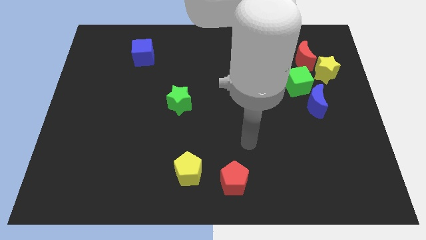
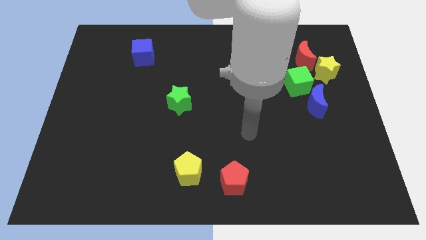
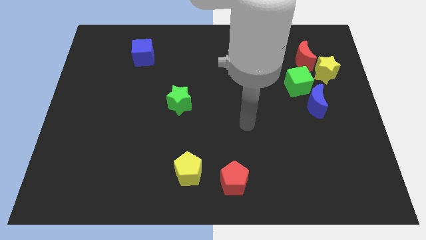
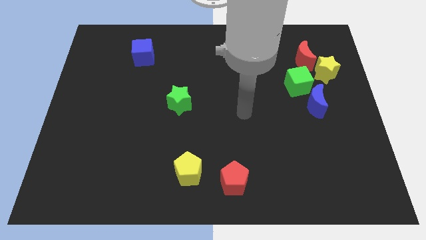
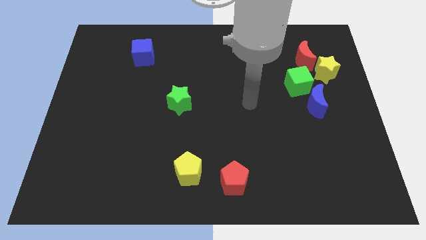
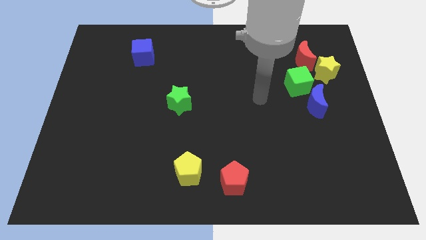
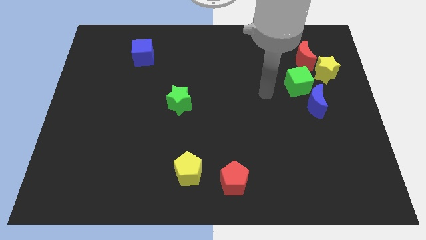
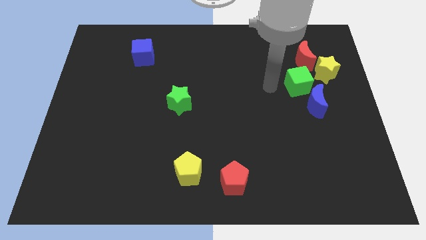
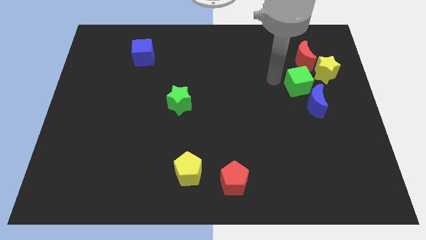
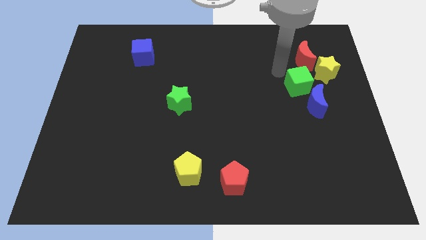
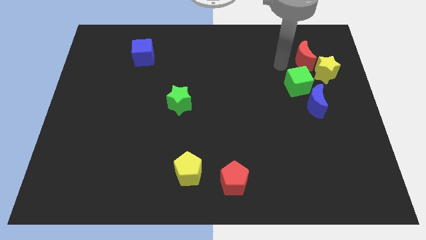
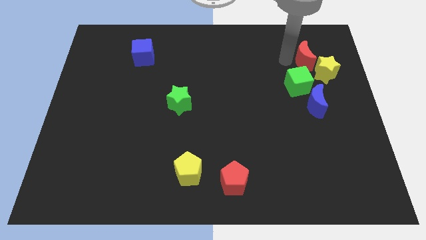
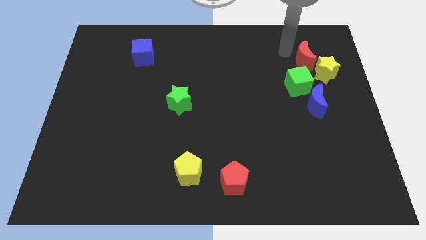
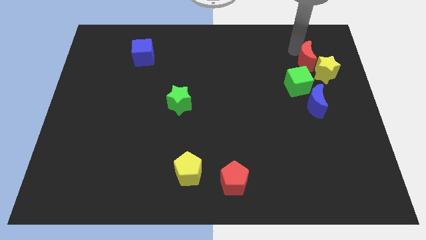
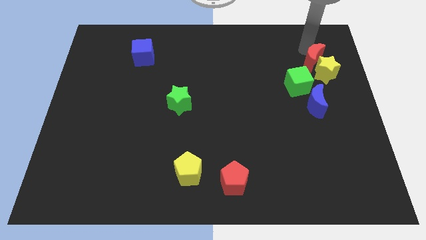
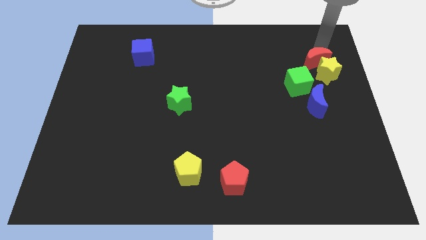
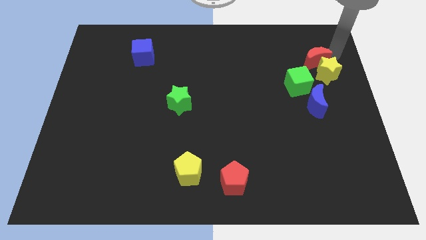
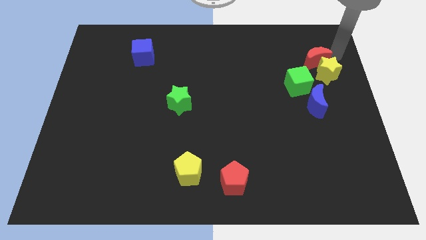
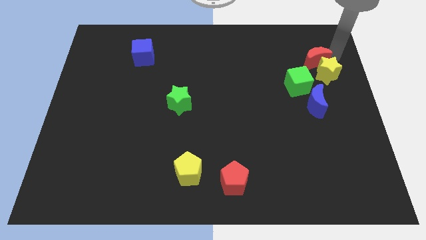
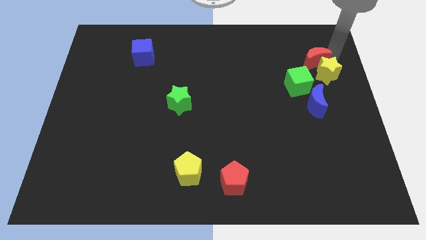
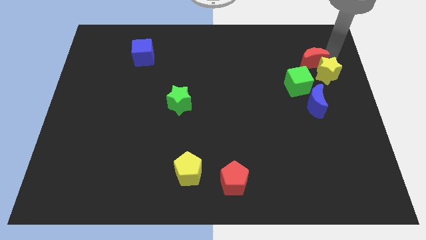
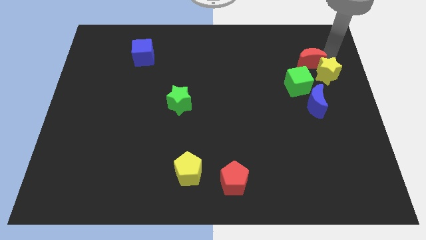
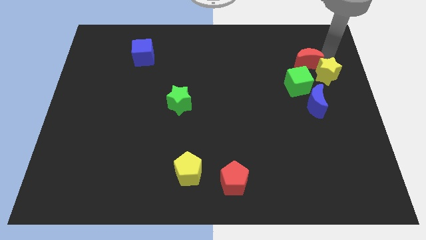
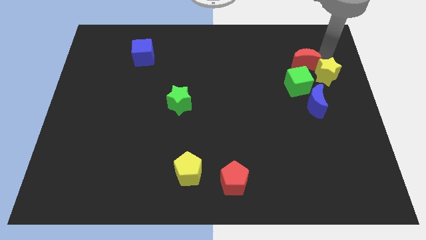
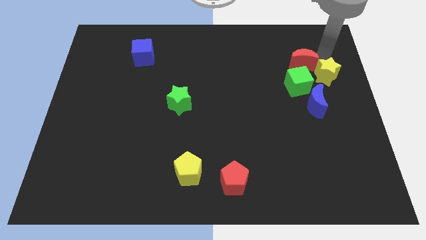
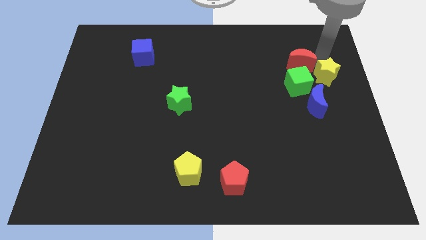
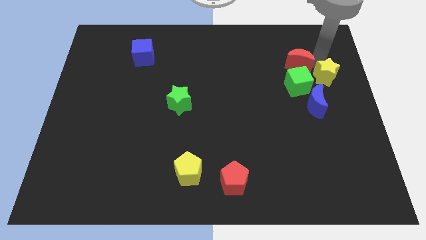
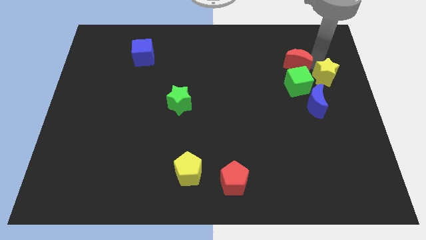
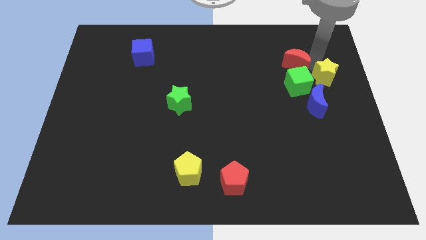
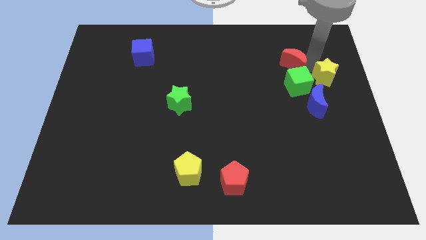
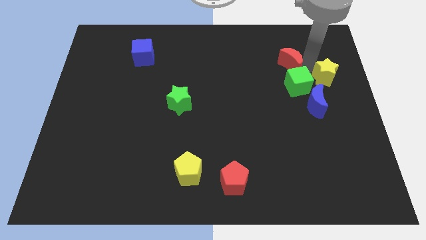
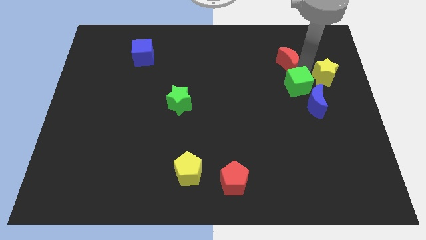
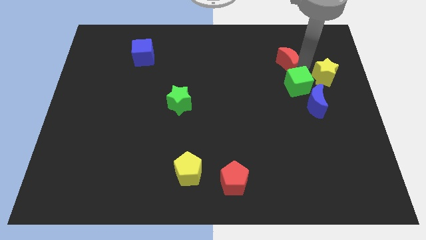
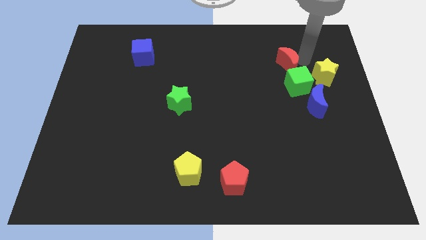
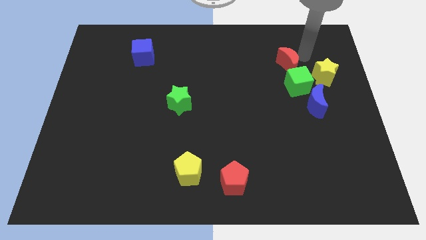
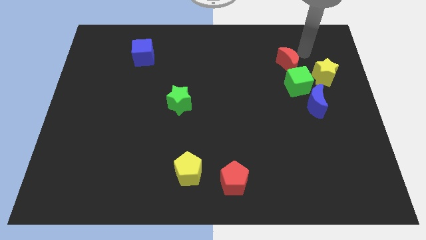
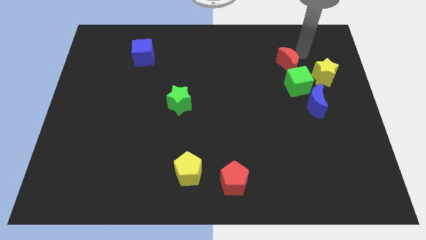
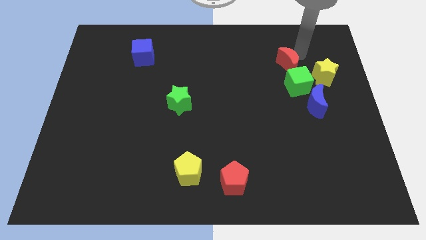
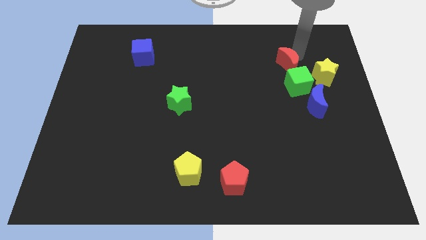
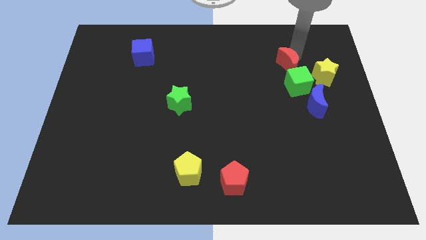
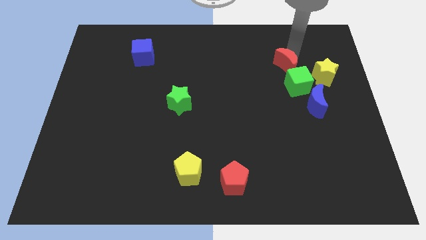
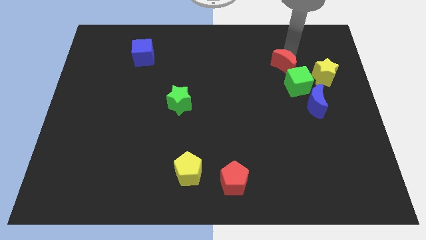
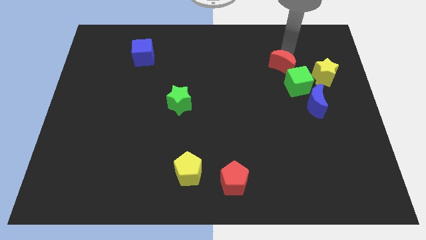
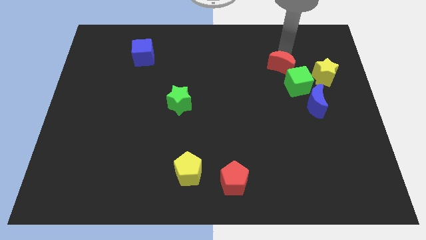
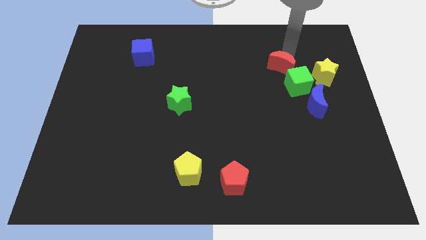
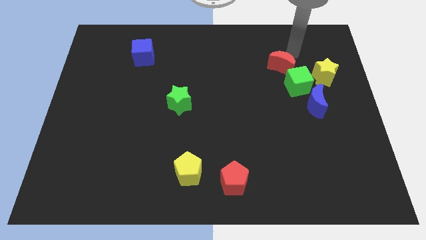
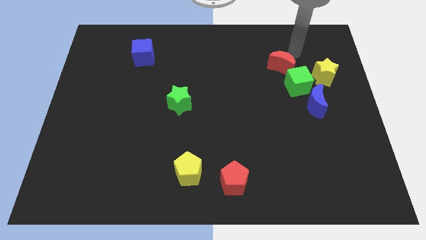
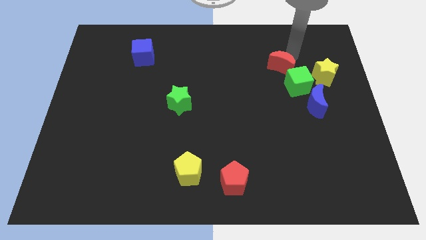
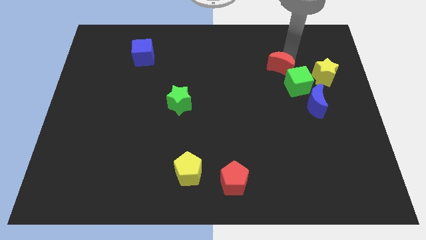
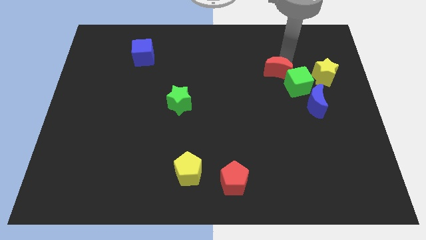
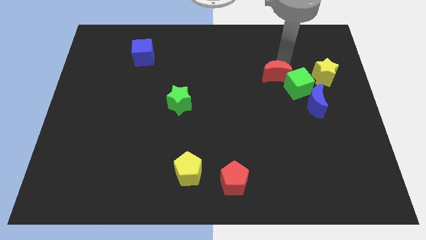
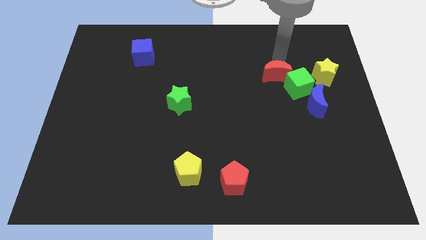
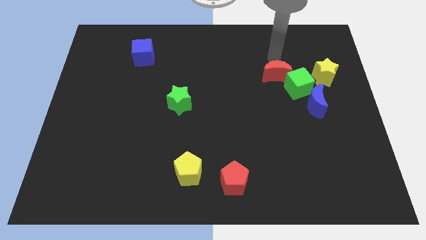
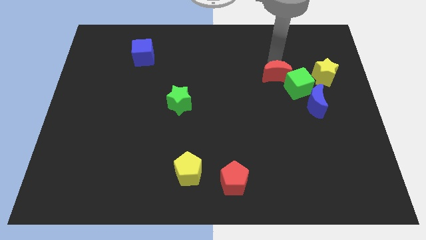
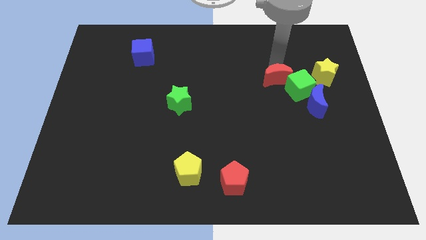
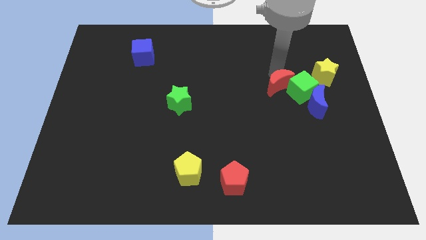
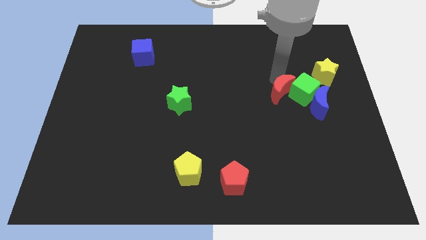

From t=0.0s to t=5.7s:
move the red moon diagonally down and to the left of the green cube

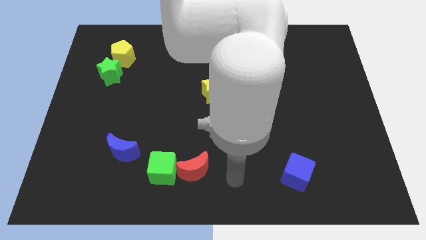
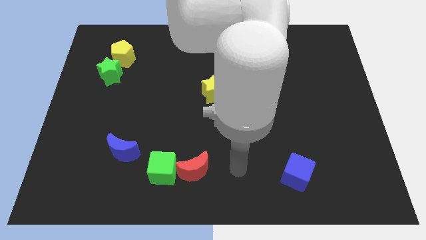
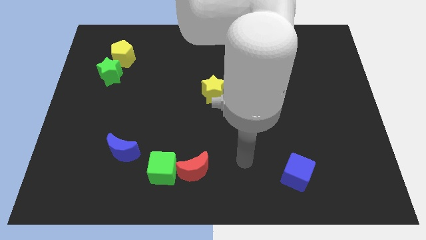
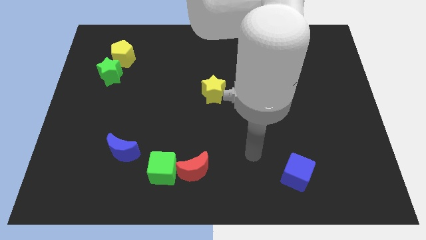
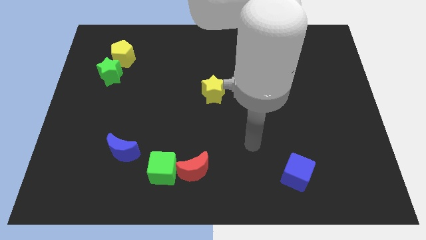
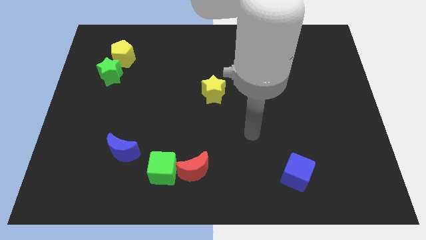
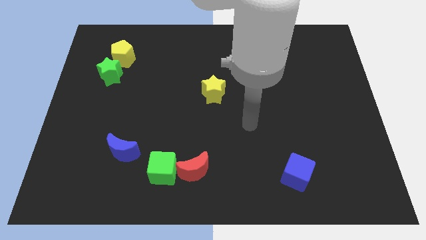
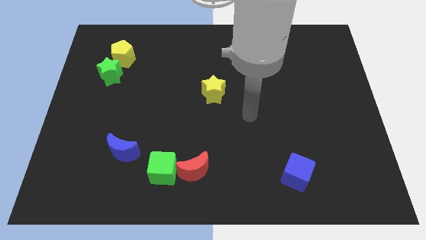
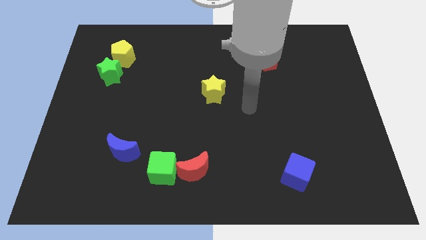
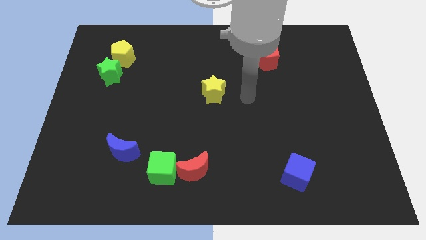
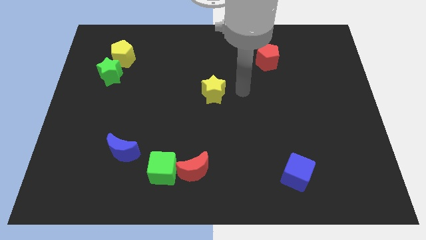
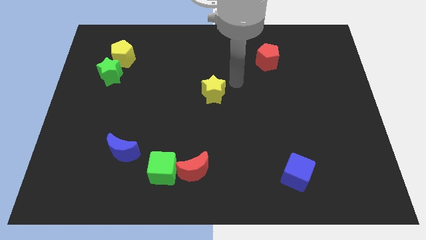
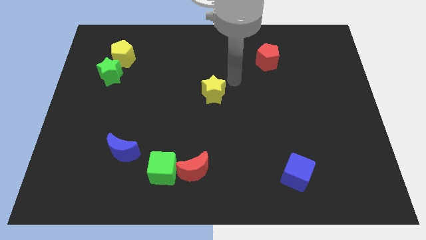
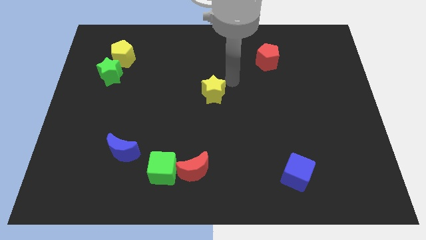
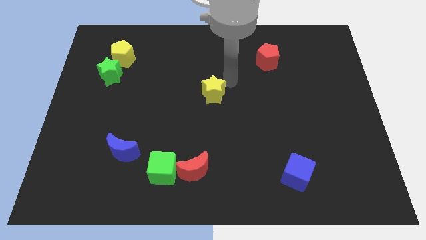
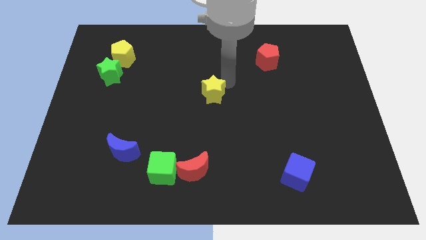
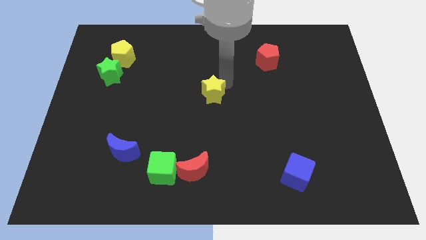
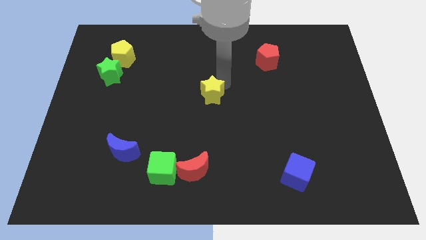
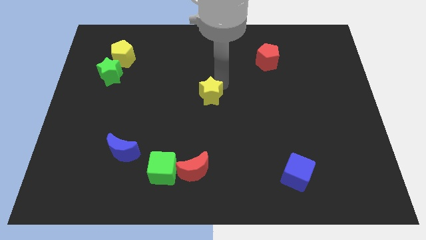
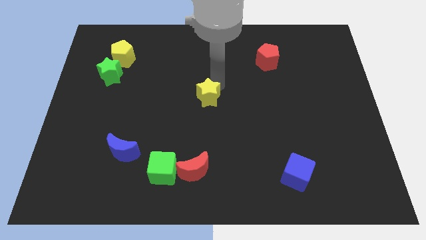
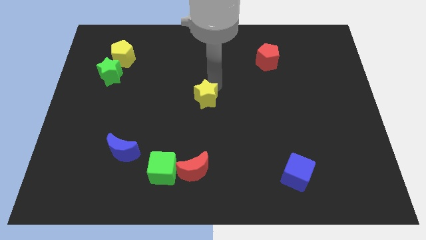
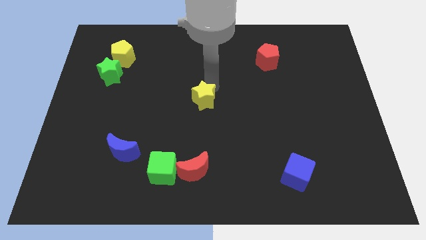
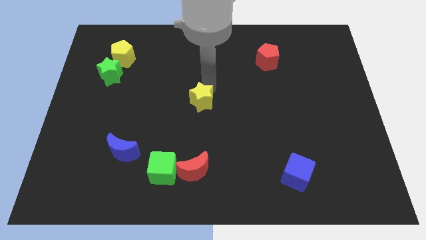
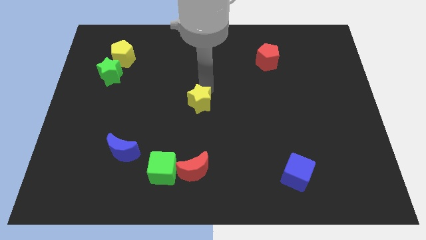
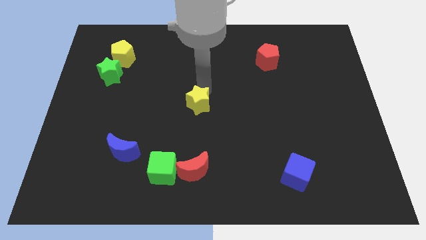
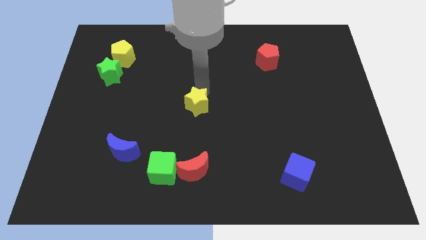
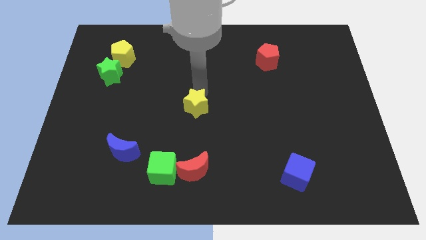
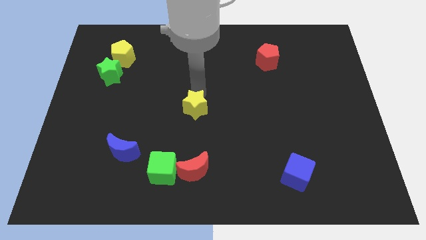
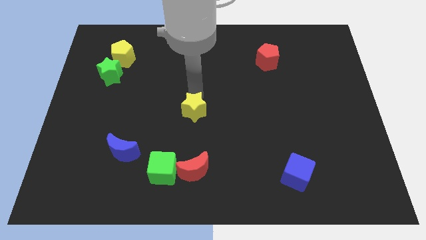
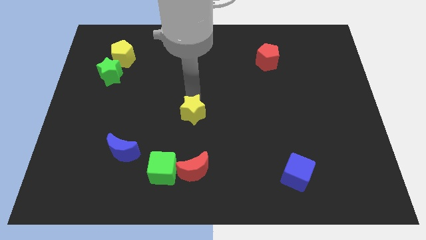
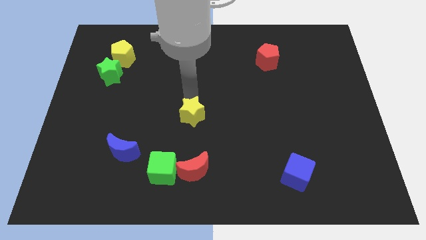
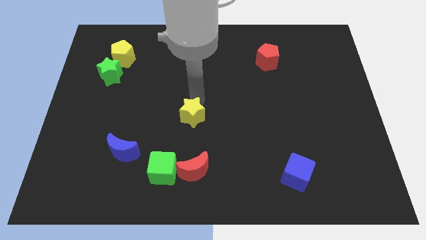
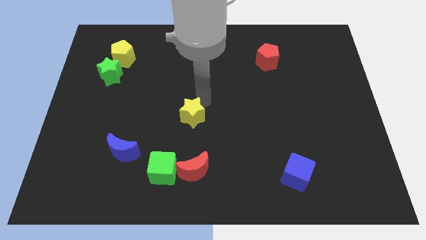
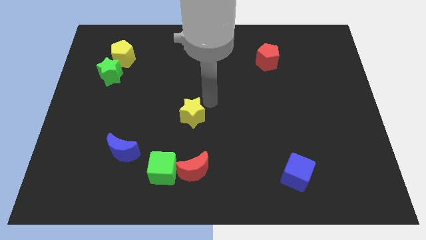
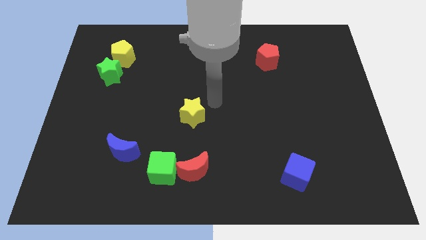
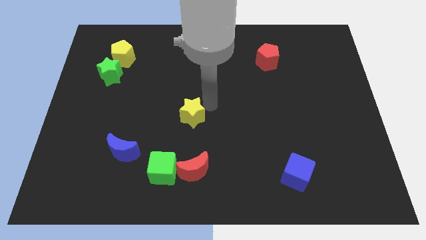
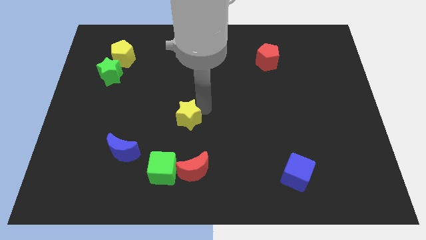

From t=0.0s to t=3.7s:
slide the yellow star to the top of the green cube
